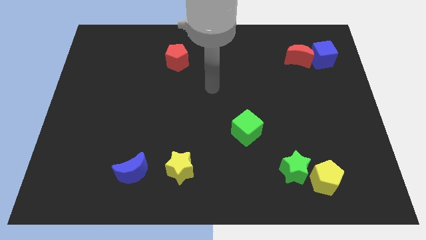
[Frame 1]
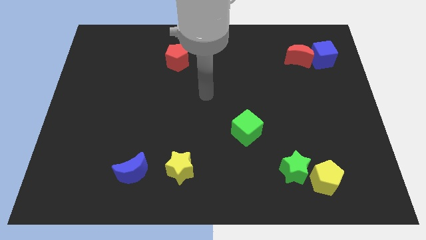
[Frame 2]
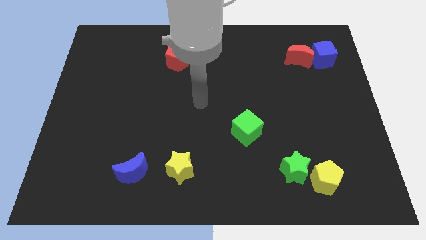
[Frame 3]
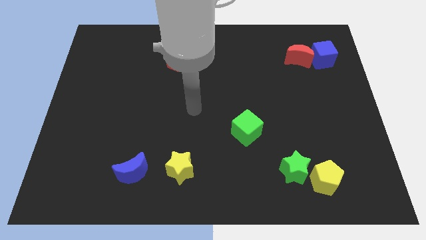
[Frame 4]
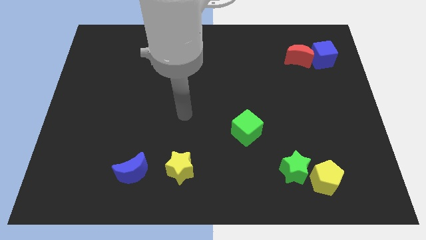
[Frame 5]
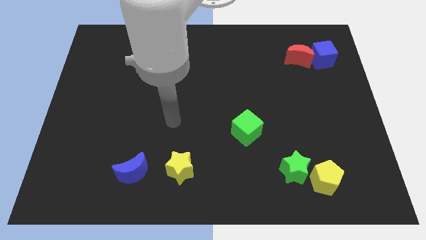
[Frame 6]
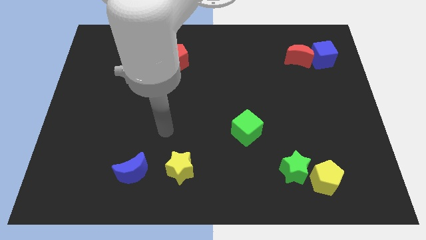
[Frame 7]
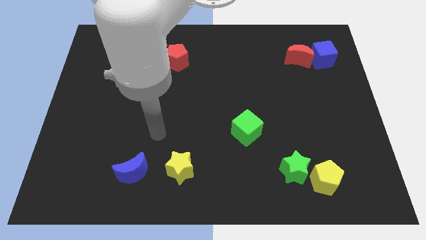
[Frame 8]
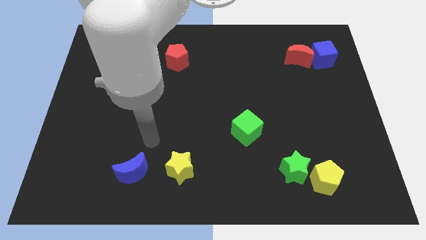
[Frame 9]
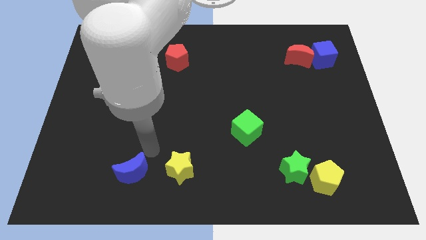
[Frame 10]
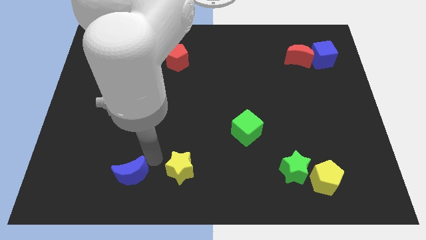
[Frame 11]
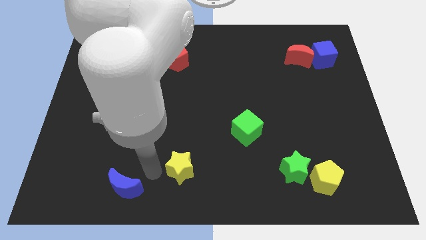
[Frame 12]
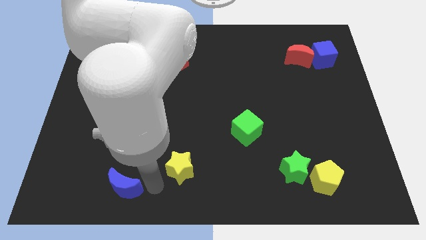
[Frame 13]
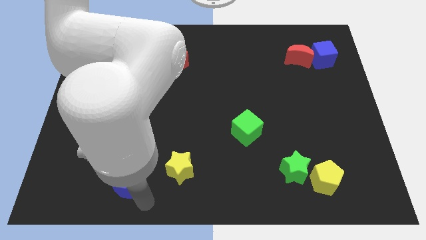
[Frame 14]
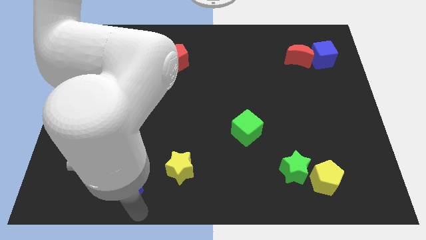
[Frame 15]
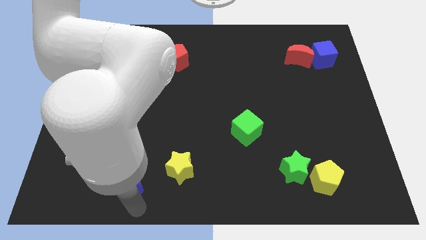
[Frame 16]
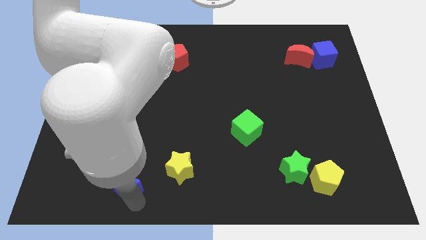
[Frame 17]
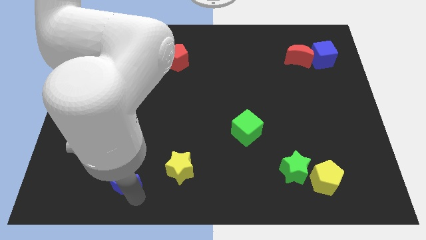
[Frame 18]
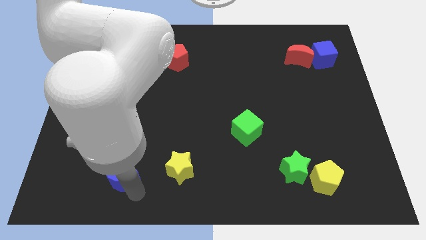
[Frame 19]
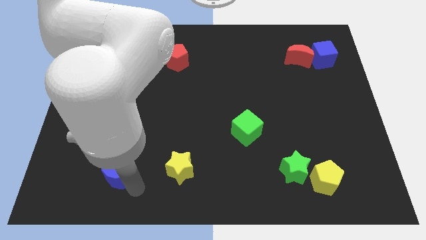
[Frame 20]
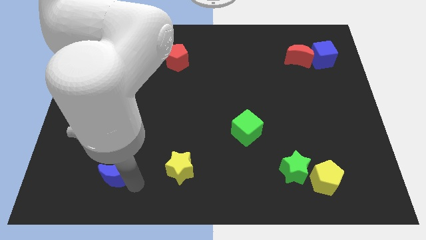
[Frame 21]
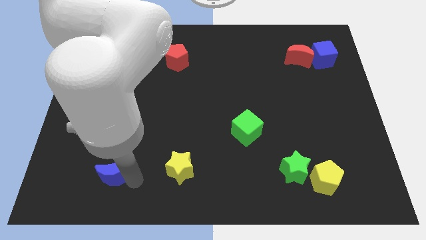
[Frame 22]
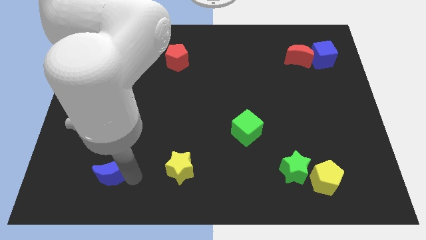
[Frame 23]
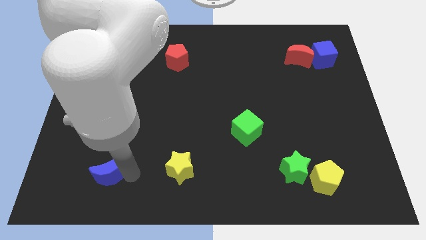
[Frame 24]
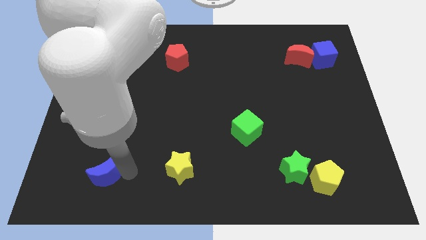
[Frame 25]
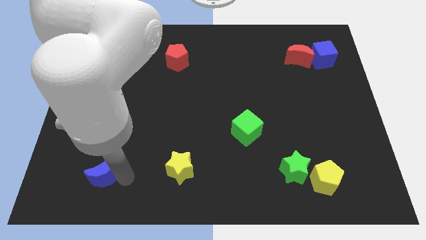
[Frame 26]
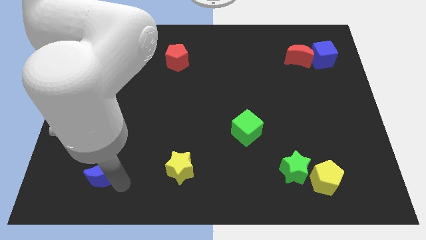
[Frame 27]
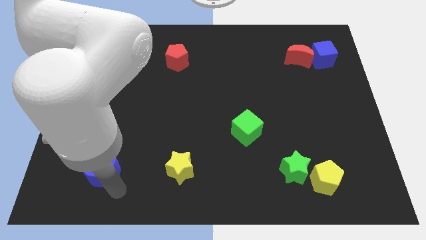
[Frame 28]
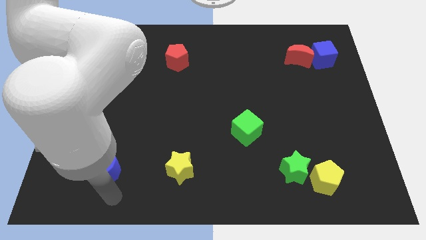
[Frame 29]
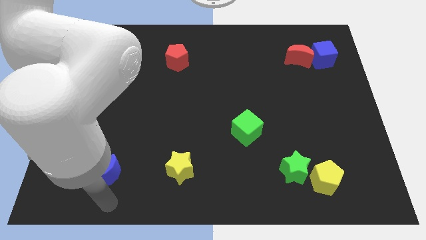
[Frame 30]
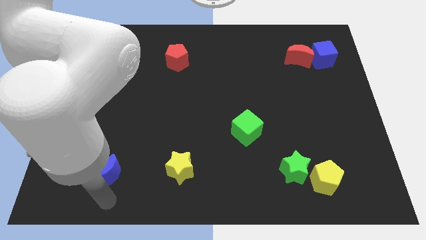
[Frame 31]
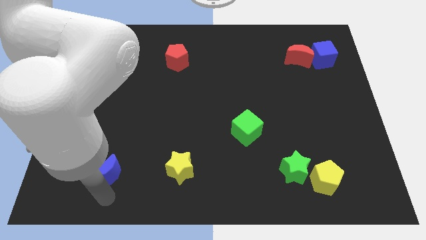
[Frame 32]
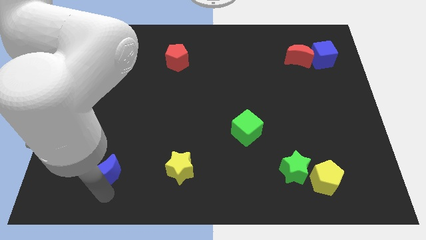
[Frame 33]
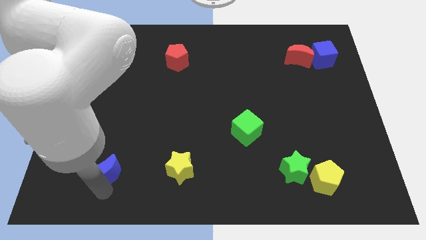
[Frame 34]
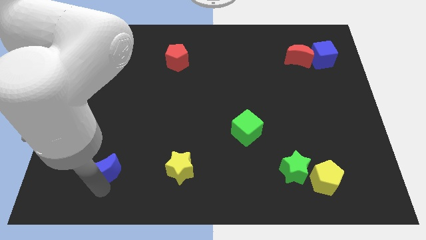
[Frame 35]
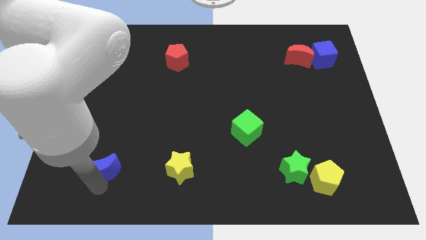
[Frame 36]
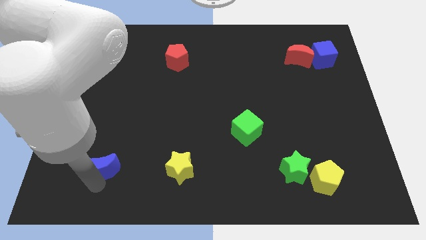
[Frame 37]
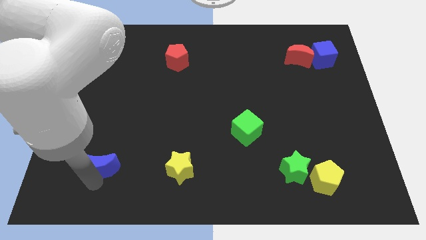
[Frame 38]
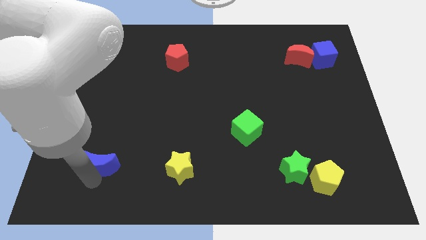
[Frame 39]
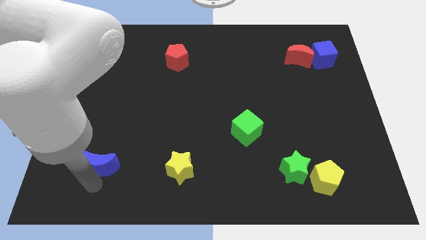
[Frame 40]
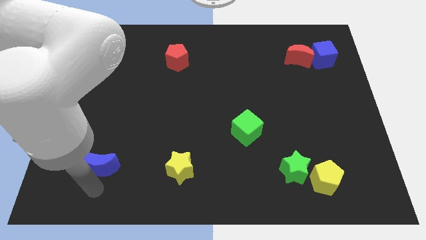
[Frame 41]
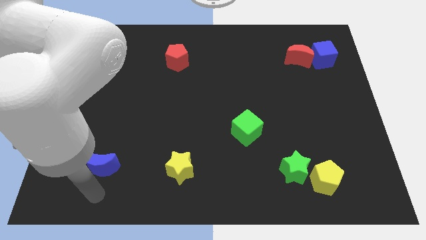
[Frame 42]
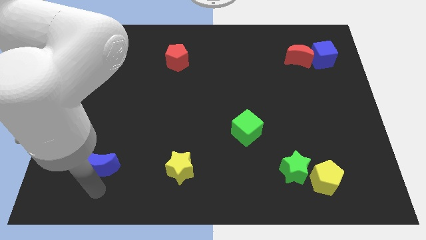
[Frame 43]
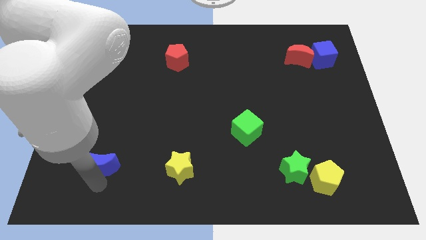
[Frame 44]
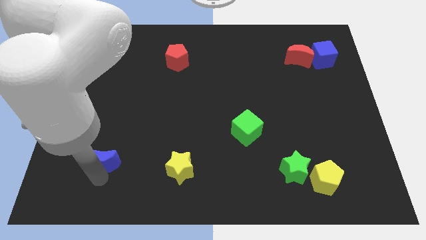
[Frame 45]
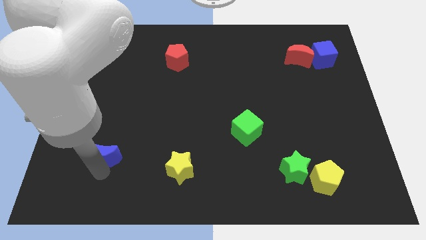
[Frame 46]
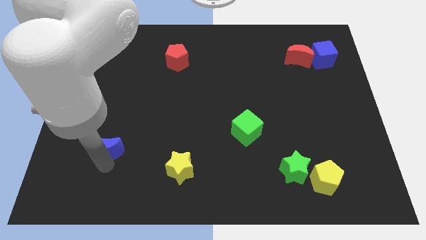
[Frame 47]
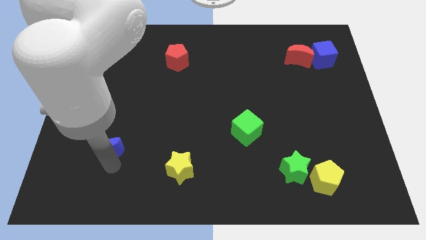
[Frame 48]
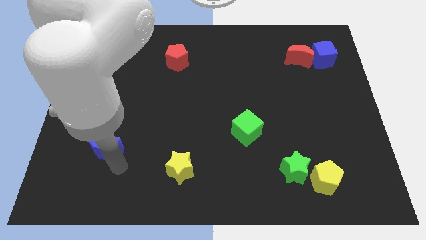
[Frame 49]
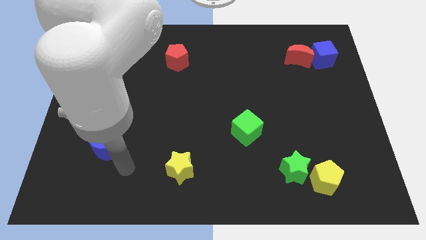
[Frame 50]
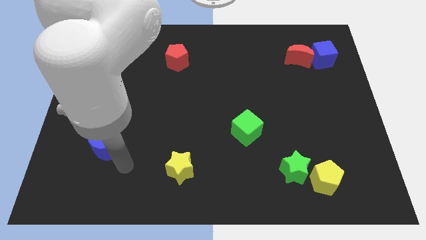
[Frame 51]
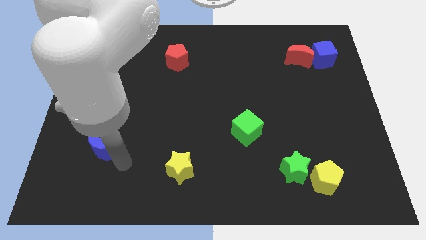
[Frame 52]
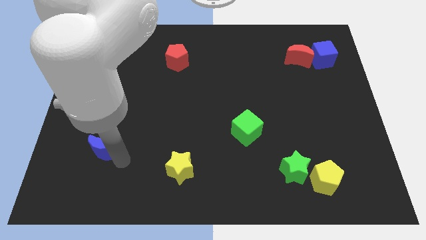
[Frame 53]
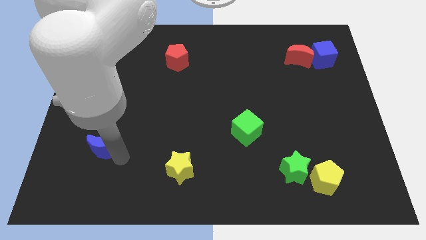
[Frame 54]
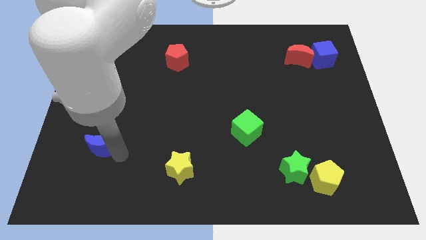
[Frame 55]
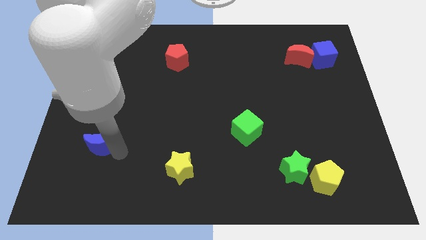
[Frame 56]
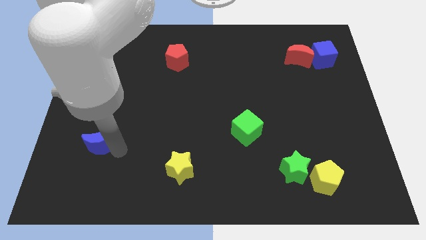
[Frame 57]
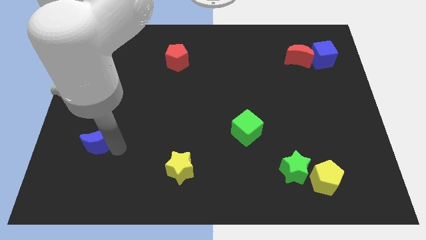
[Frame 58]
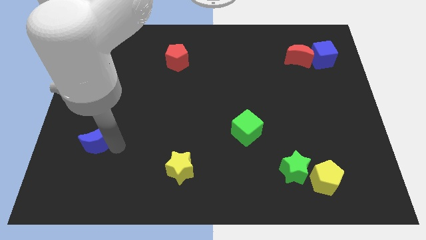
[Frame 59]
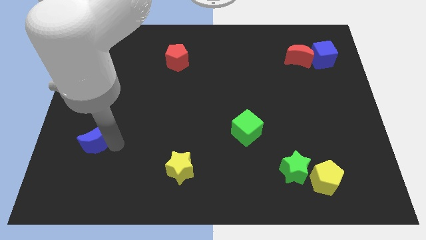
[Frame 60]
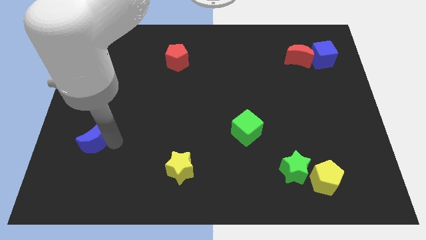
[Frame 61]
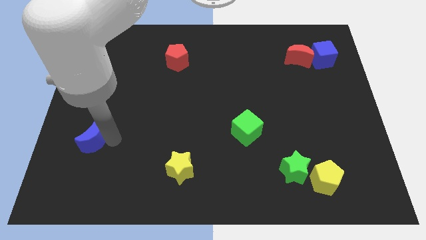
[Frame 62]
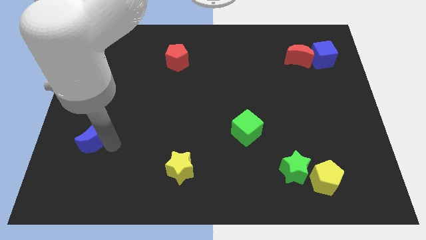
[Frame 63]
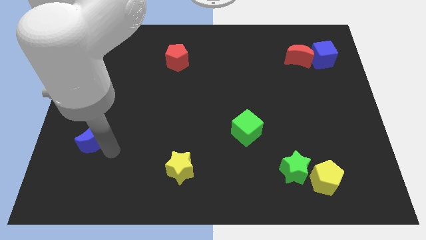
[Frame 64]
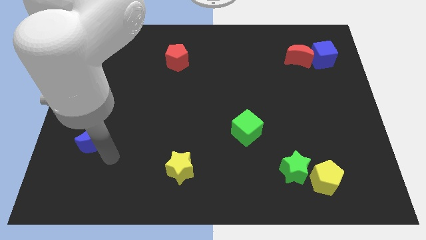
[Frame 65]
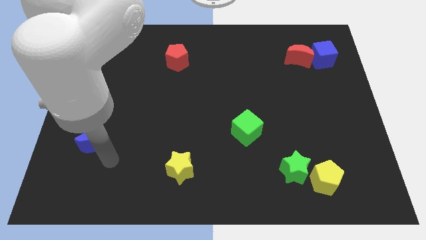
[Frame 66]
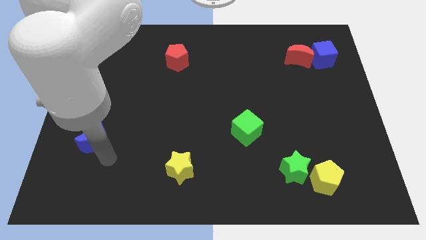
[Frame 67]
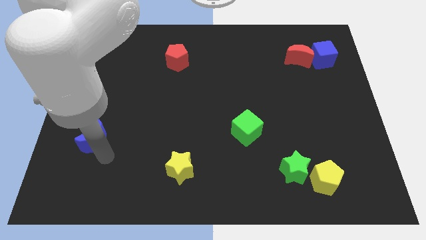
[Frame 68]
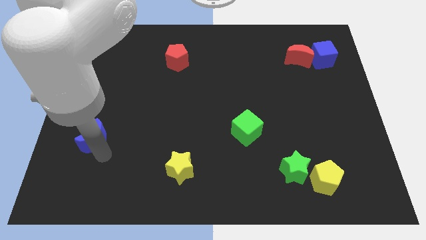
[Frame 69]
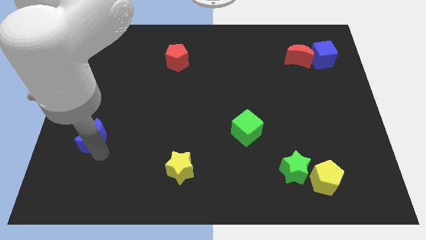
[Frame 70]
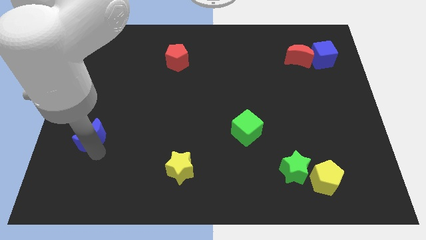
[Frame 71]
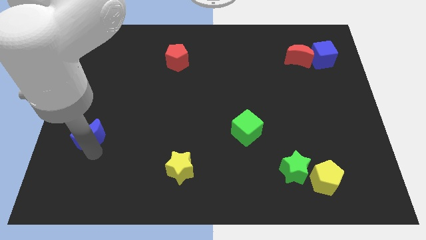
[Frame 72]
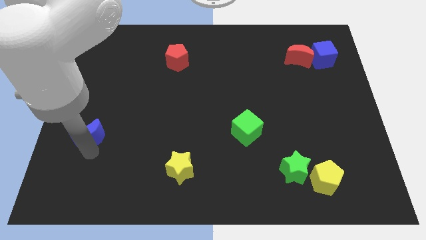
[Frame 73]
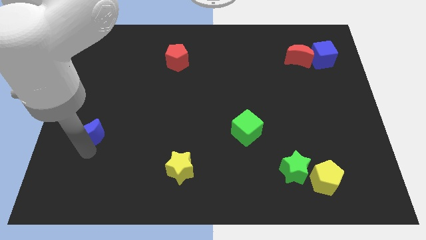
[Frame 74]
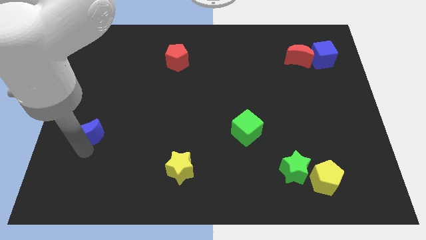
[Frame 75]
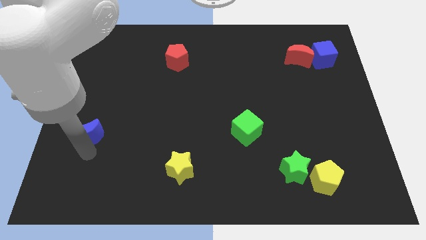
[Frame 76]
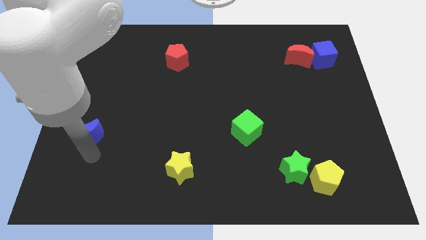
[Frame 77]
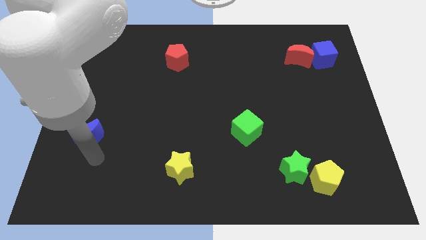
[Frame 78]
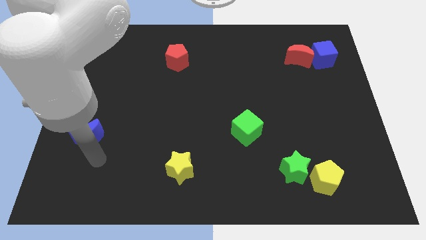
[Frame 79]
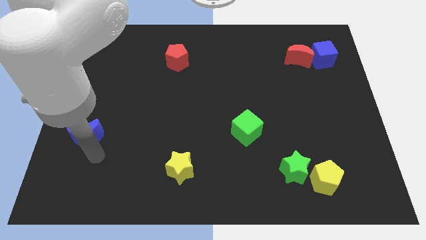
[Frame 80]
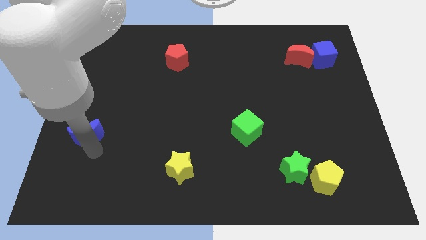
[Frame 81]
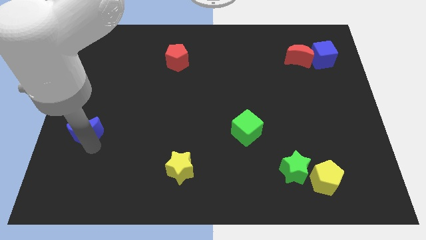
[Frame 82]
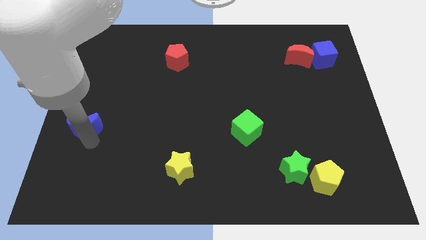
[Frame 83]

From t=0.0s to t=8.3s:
put the blue moon to the left side
